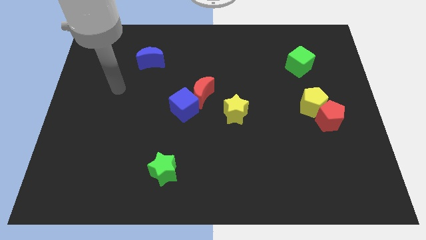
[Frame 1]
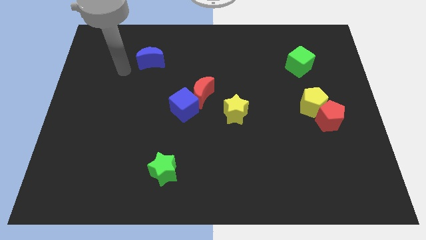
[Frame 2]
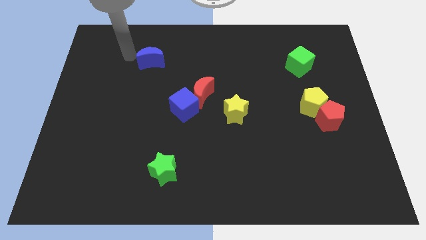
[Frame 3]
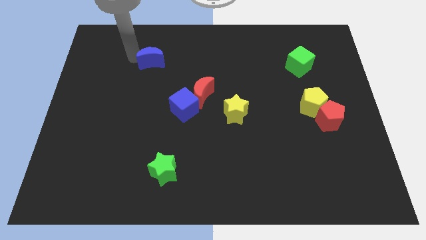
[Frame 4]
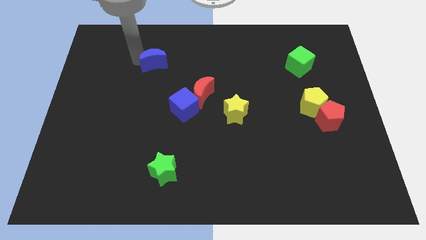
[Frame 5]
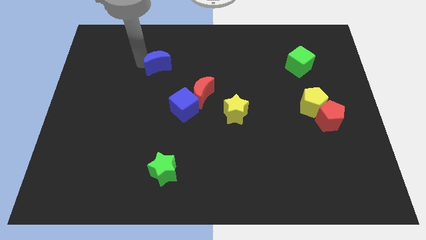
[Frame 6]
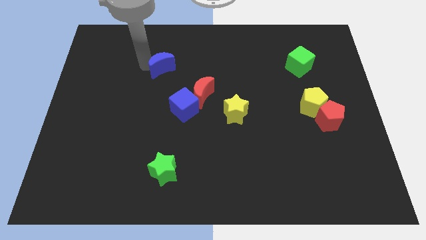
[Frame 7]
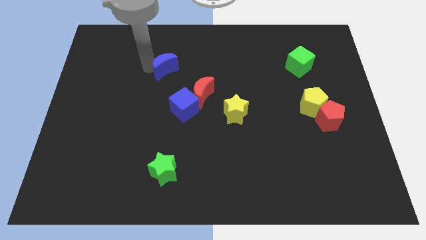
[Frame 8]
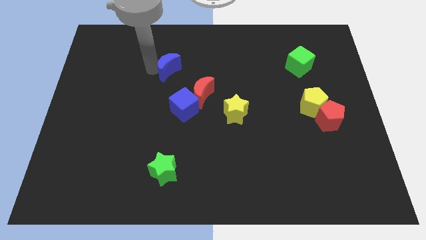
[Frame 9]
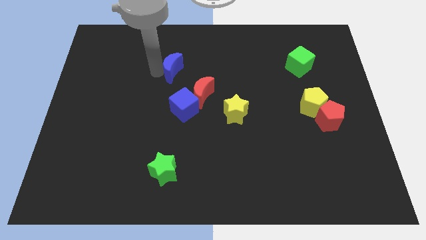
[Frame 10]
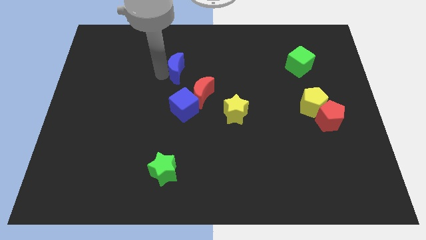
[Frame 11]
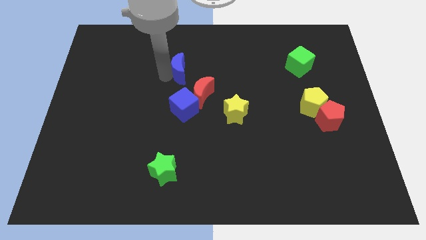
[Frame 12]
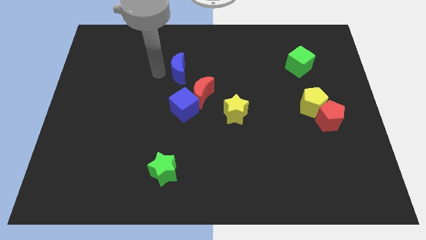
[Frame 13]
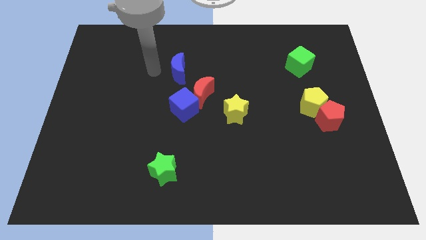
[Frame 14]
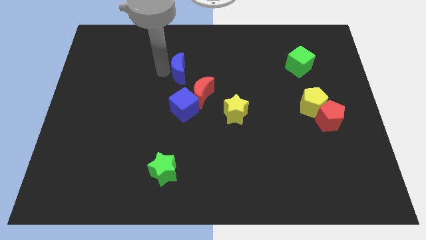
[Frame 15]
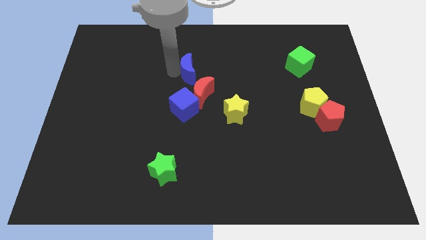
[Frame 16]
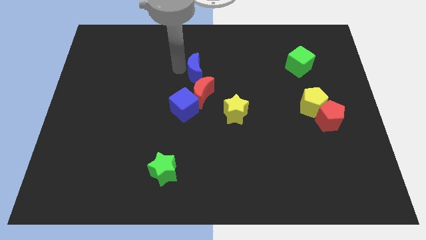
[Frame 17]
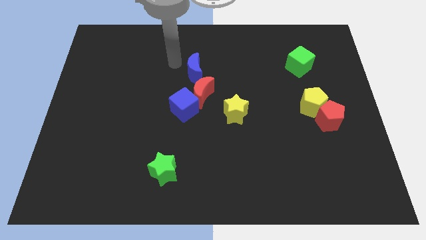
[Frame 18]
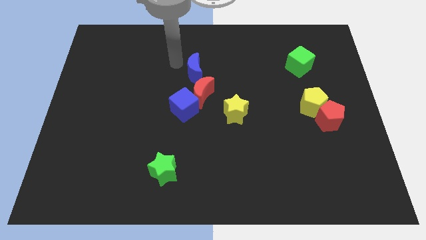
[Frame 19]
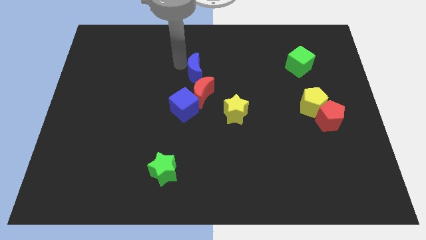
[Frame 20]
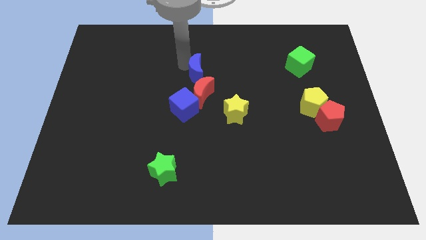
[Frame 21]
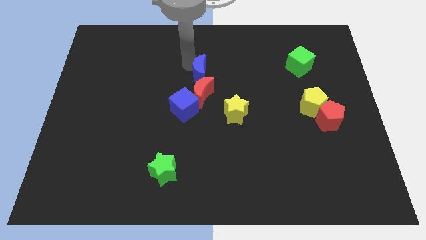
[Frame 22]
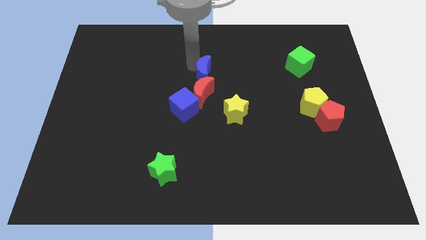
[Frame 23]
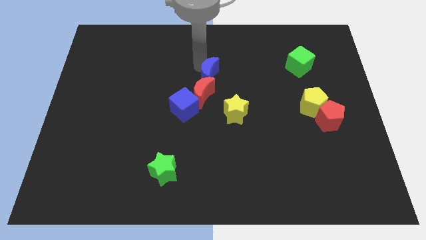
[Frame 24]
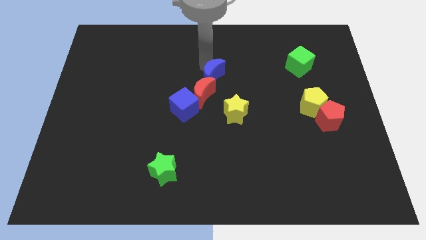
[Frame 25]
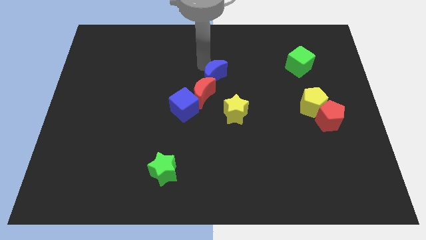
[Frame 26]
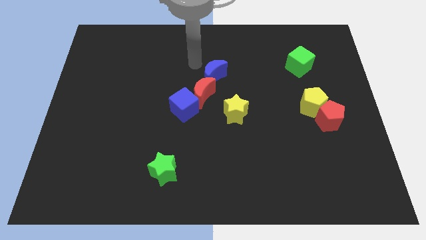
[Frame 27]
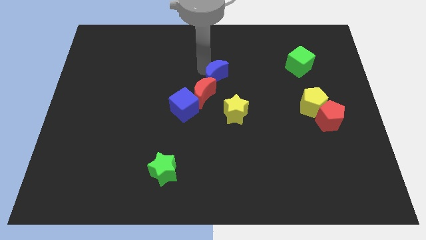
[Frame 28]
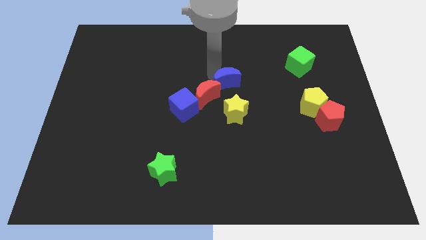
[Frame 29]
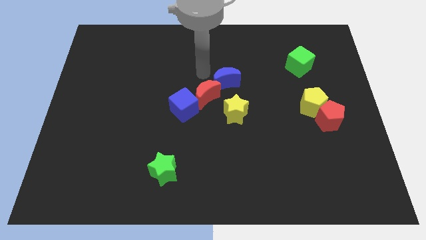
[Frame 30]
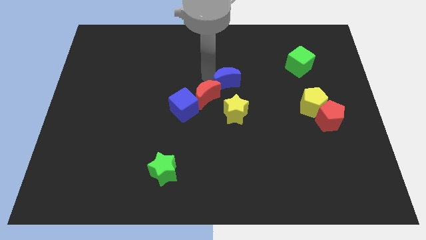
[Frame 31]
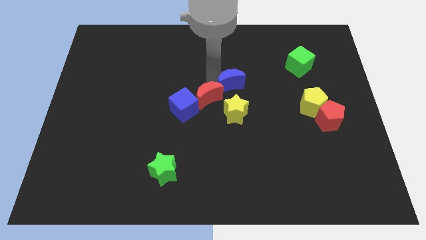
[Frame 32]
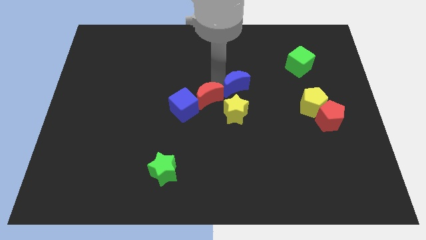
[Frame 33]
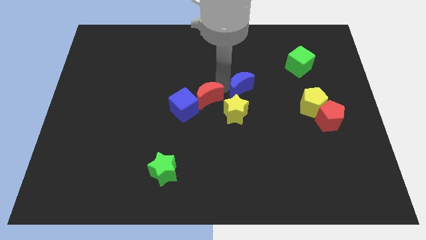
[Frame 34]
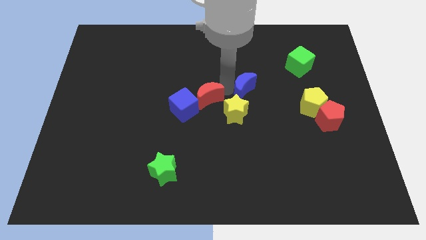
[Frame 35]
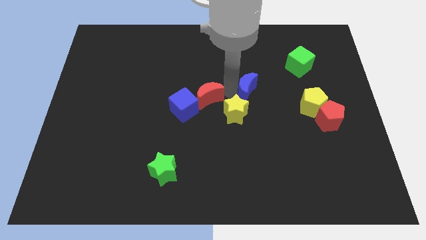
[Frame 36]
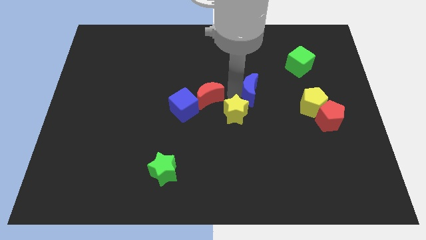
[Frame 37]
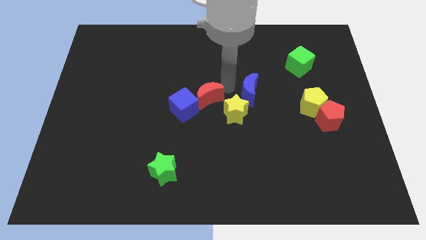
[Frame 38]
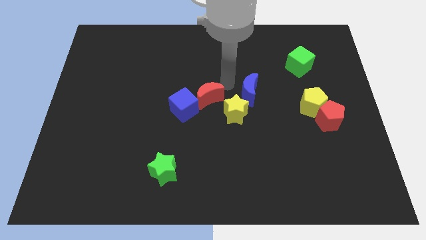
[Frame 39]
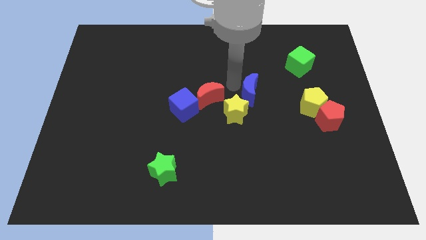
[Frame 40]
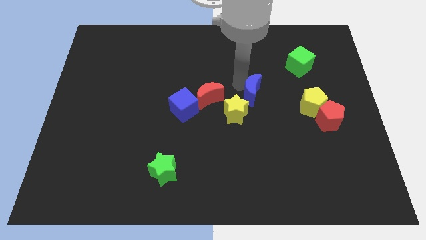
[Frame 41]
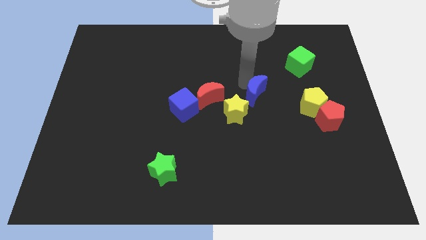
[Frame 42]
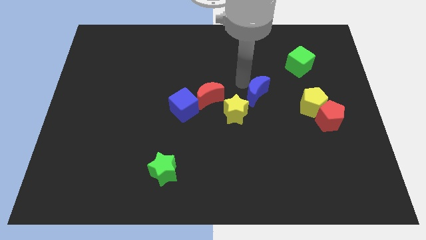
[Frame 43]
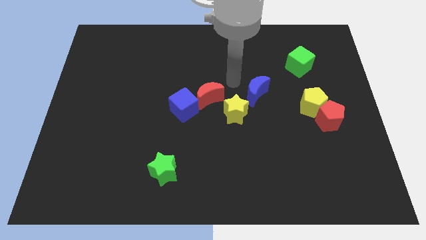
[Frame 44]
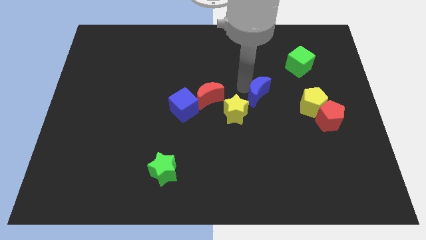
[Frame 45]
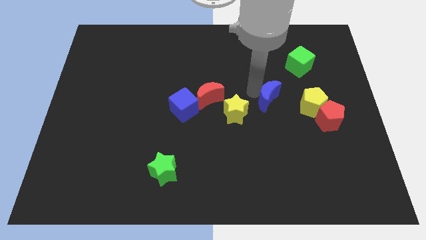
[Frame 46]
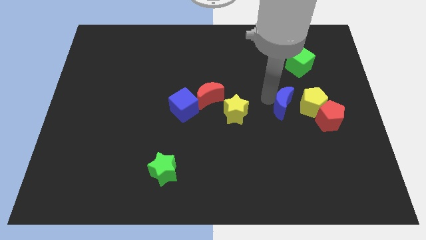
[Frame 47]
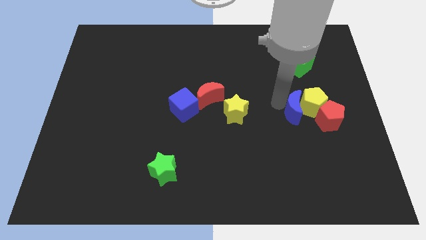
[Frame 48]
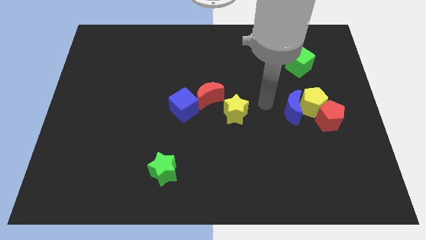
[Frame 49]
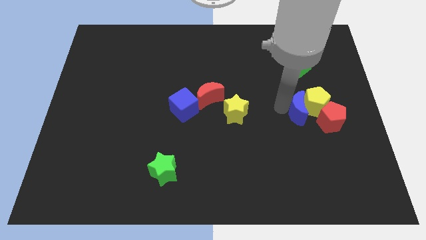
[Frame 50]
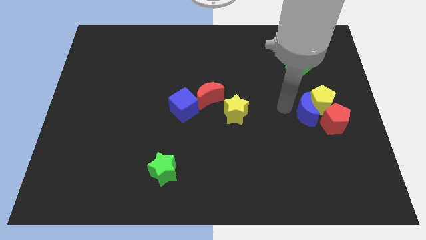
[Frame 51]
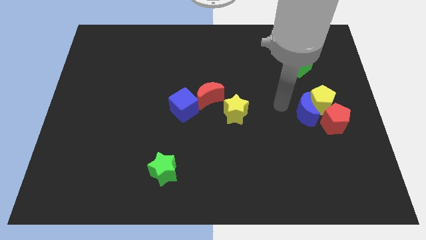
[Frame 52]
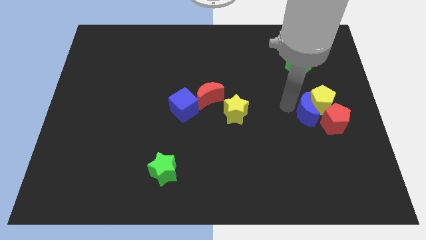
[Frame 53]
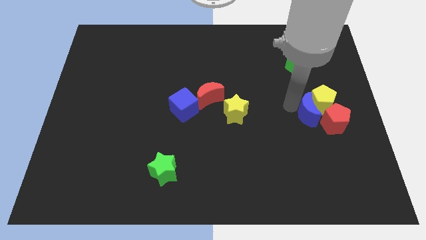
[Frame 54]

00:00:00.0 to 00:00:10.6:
push the blue moon next to the red pentagon

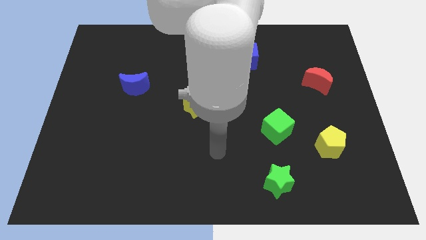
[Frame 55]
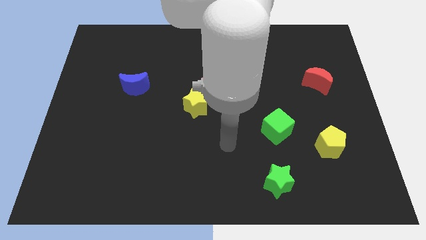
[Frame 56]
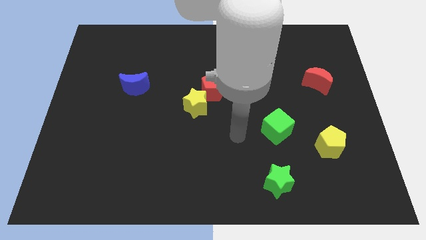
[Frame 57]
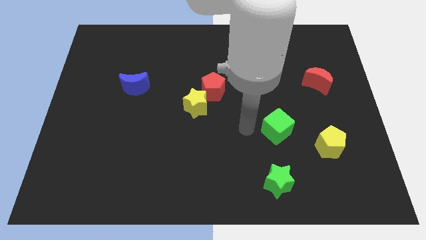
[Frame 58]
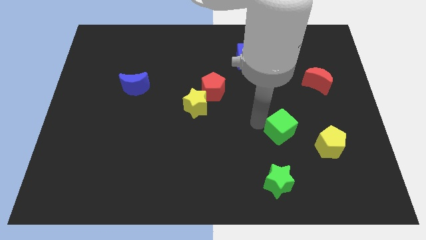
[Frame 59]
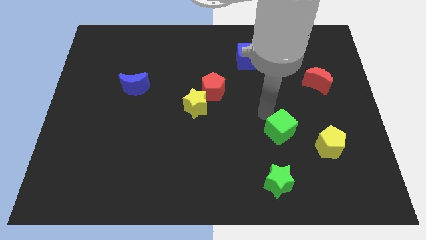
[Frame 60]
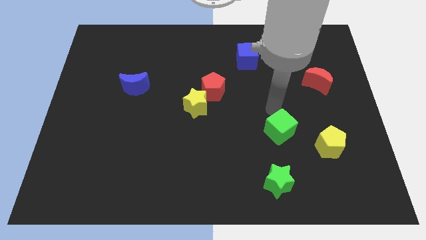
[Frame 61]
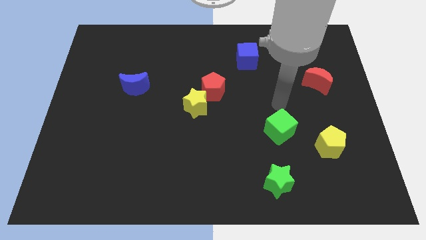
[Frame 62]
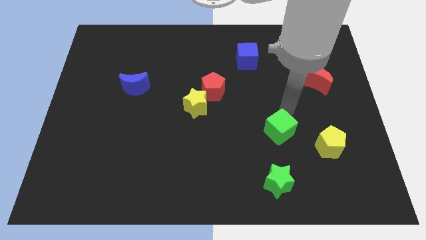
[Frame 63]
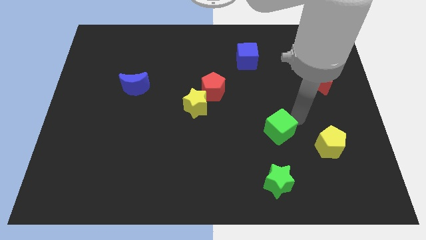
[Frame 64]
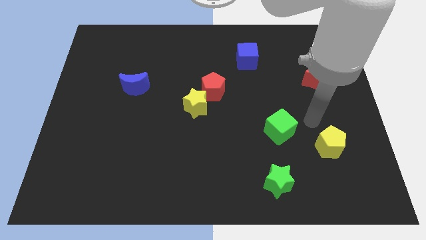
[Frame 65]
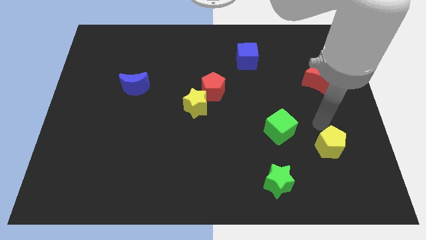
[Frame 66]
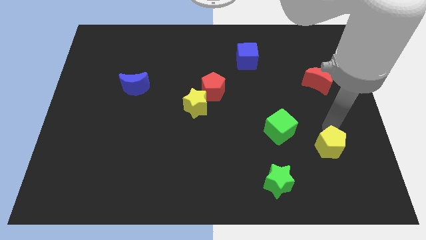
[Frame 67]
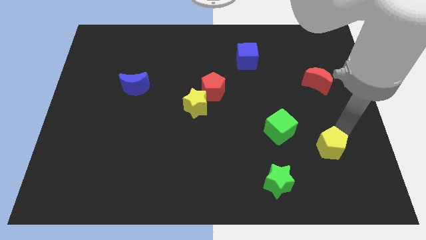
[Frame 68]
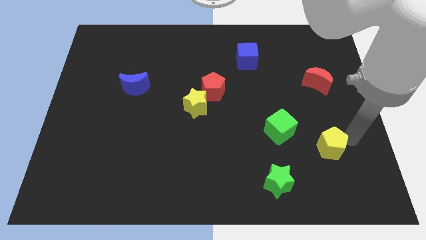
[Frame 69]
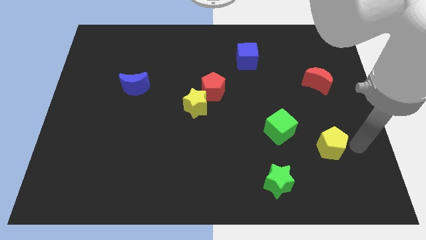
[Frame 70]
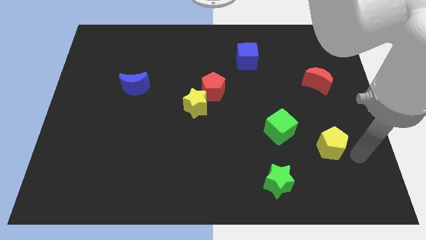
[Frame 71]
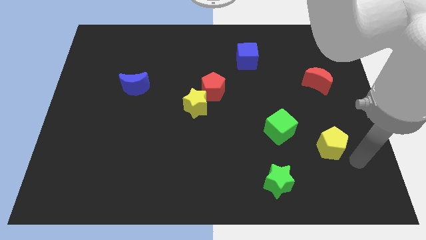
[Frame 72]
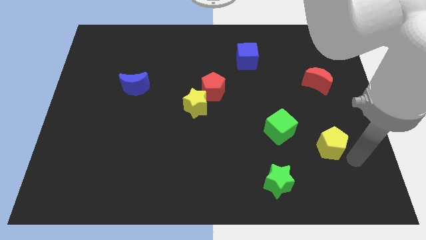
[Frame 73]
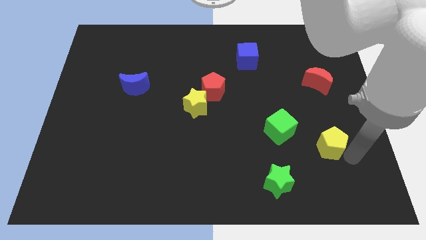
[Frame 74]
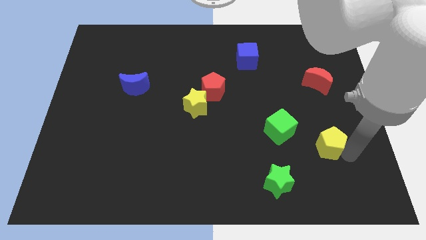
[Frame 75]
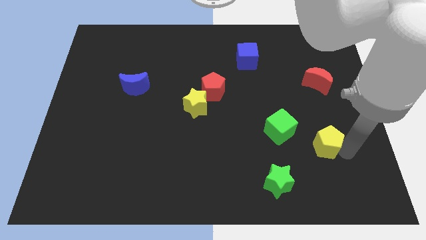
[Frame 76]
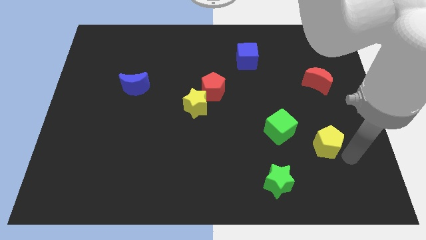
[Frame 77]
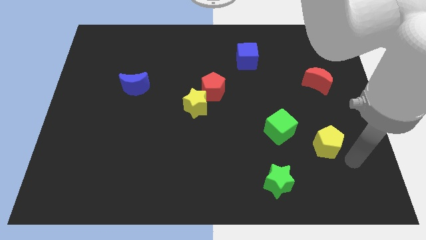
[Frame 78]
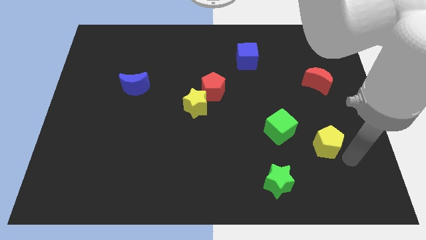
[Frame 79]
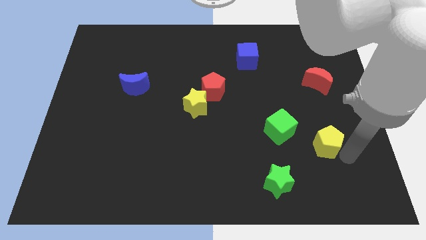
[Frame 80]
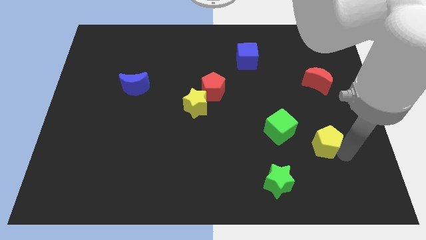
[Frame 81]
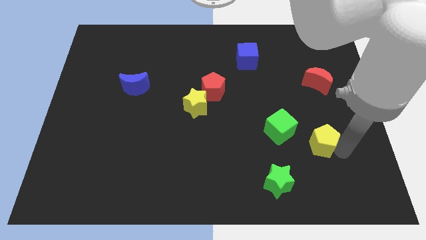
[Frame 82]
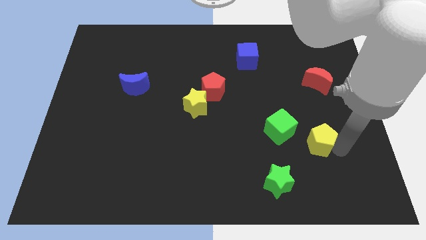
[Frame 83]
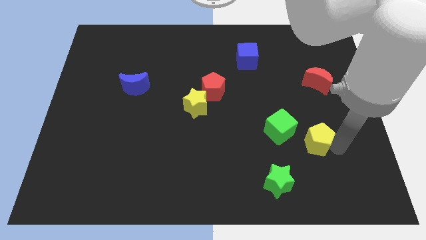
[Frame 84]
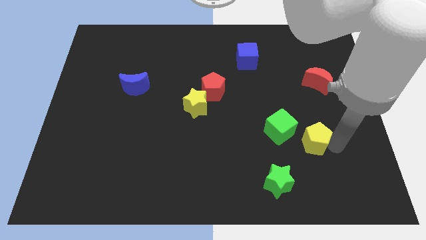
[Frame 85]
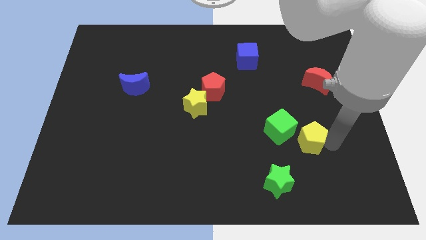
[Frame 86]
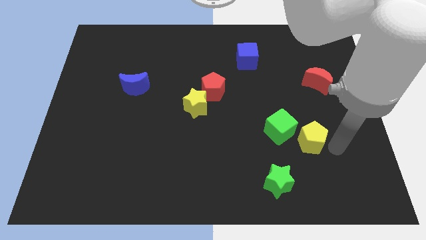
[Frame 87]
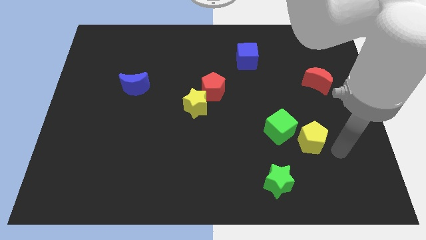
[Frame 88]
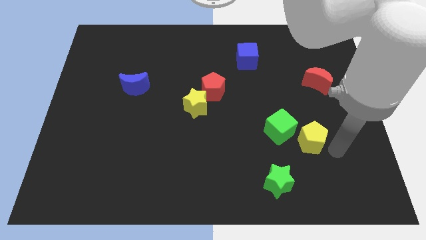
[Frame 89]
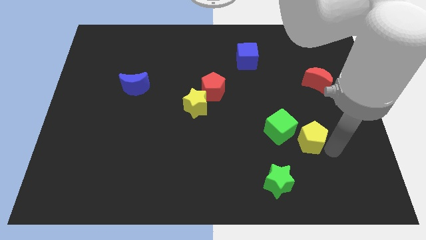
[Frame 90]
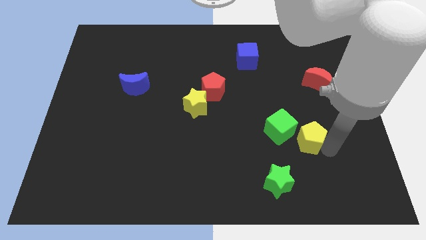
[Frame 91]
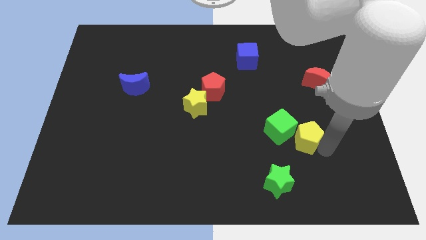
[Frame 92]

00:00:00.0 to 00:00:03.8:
push the yellow pentagon towards the green cube
